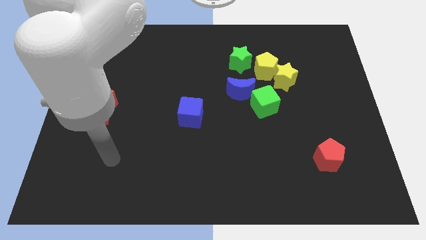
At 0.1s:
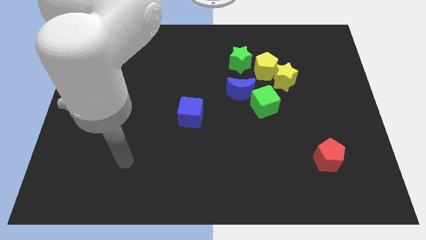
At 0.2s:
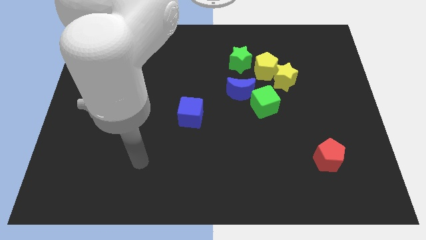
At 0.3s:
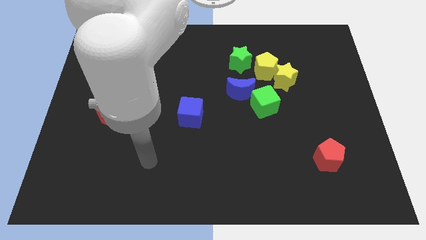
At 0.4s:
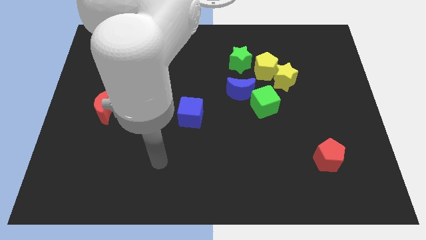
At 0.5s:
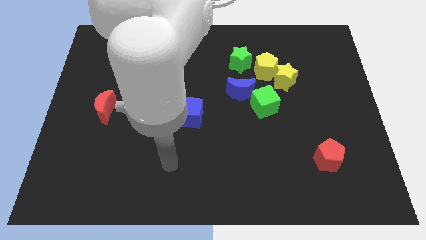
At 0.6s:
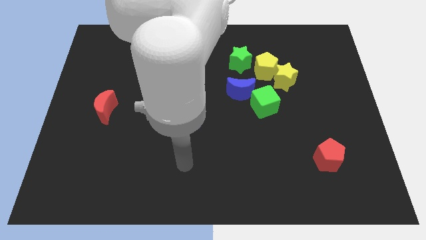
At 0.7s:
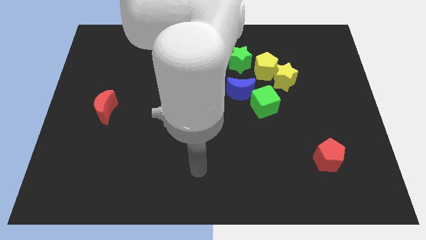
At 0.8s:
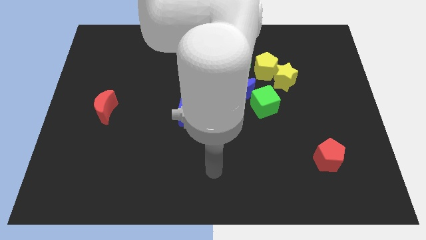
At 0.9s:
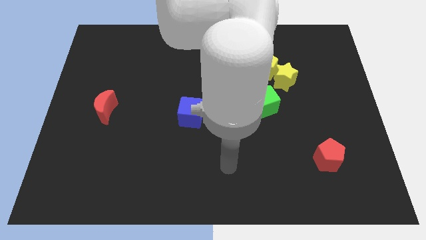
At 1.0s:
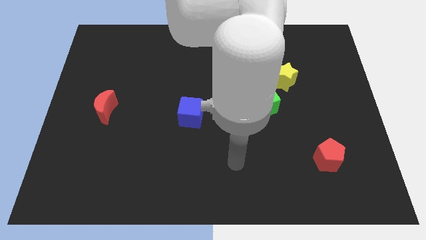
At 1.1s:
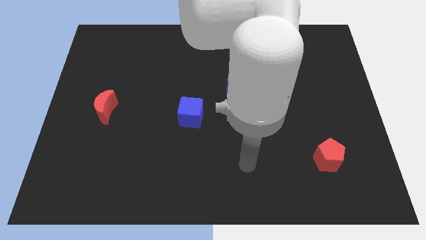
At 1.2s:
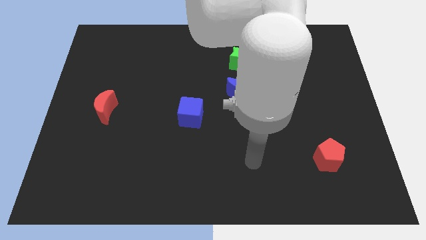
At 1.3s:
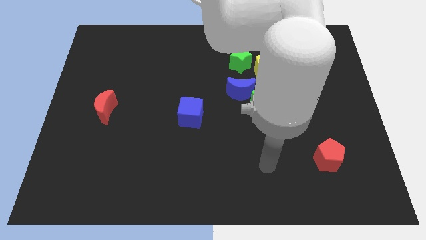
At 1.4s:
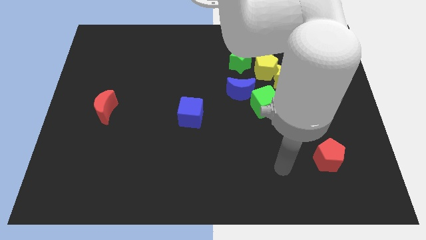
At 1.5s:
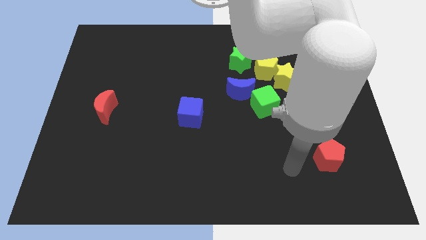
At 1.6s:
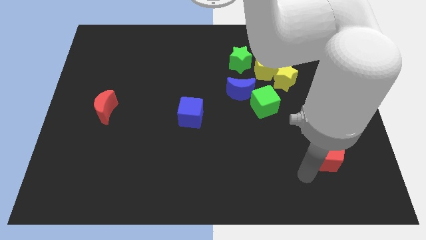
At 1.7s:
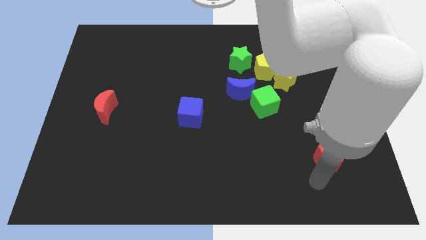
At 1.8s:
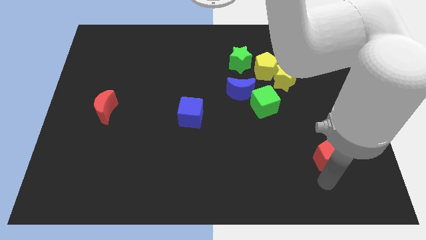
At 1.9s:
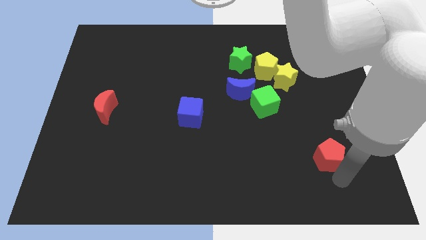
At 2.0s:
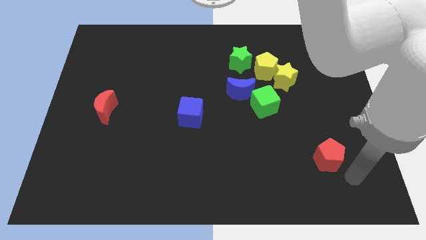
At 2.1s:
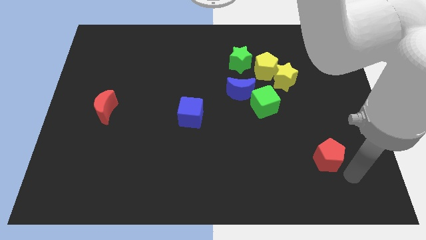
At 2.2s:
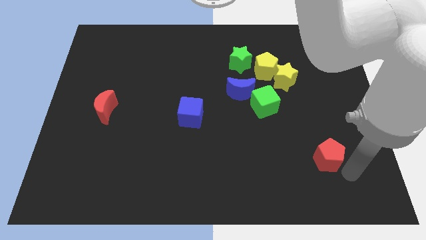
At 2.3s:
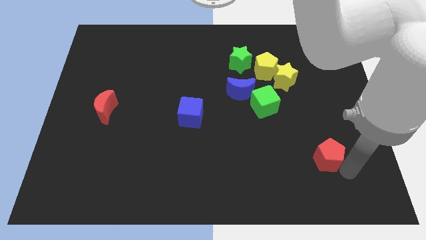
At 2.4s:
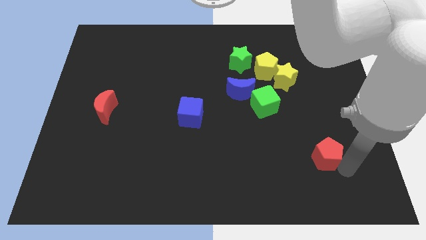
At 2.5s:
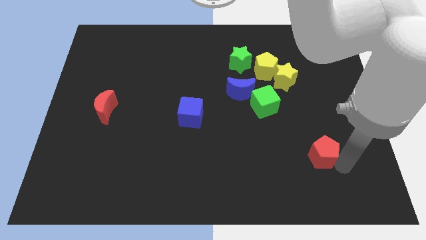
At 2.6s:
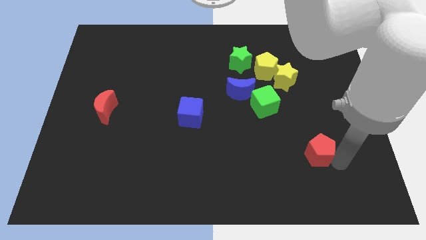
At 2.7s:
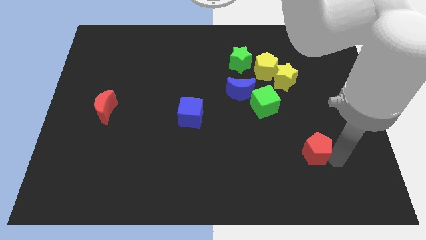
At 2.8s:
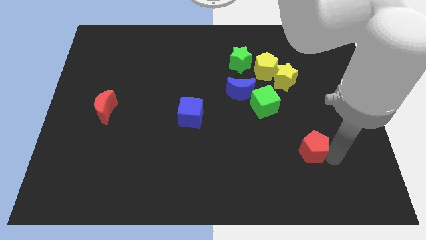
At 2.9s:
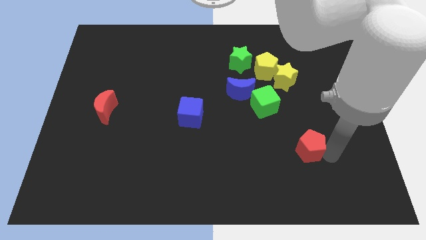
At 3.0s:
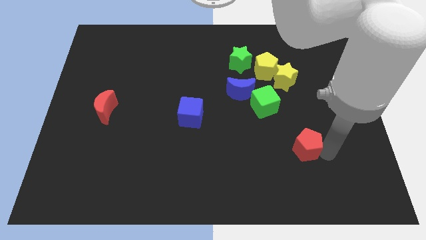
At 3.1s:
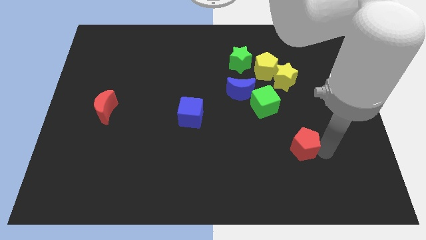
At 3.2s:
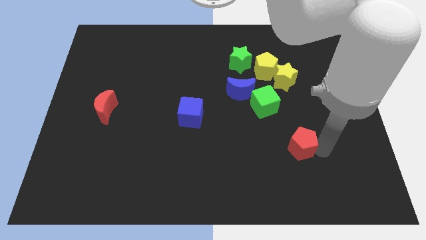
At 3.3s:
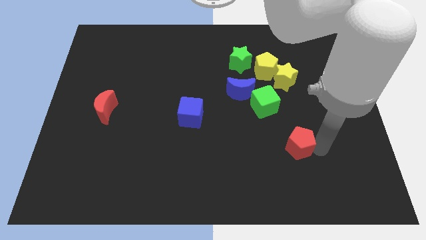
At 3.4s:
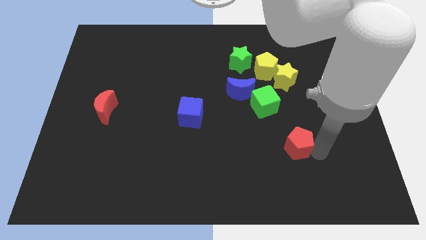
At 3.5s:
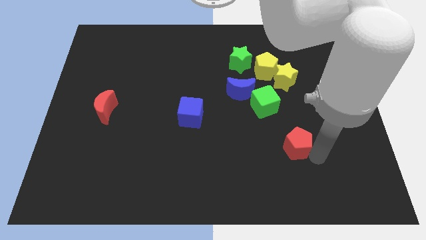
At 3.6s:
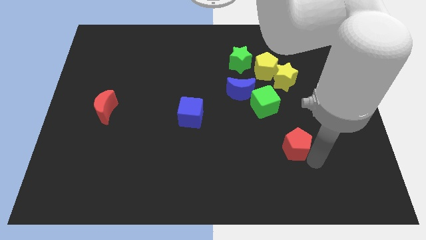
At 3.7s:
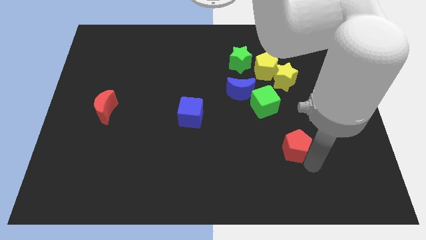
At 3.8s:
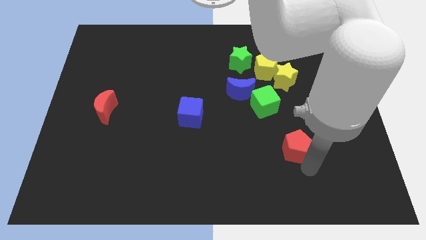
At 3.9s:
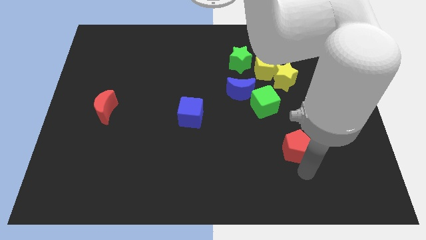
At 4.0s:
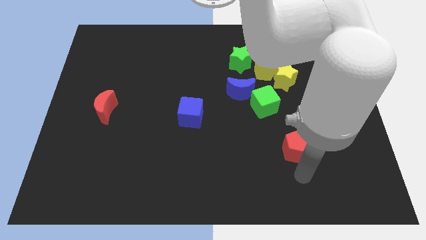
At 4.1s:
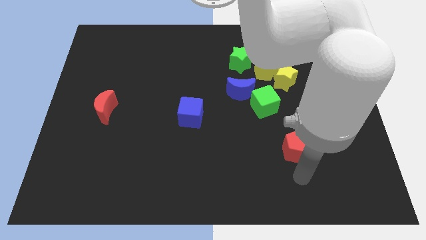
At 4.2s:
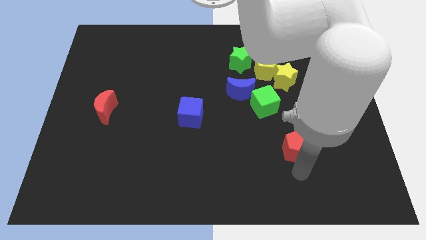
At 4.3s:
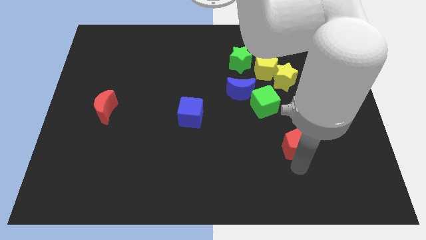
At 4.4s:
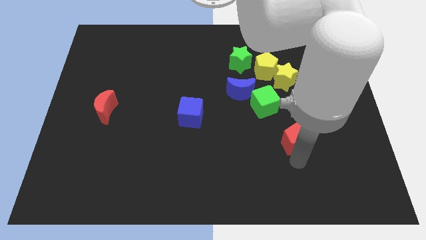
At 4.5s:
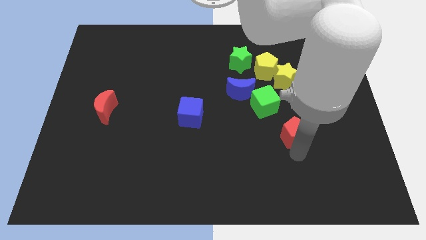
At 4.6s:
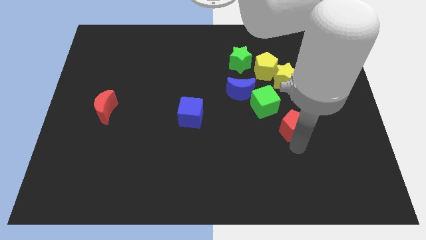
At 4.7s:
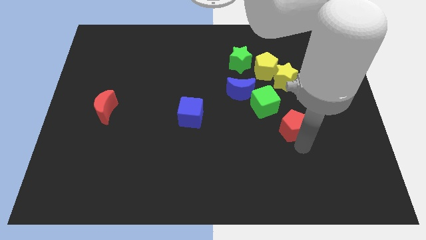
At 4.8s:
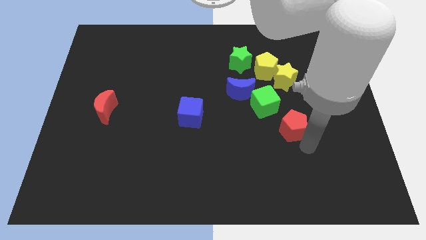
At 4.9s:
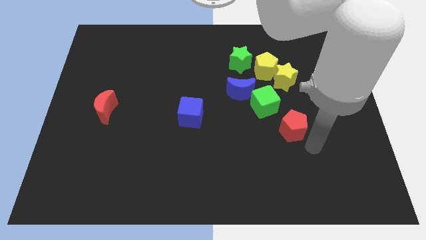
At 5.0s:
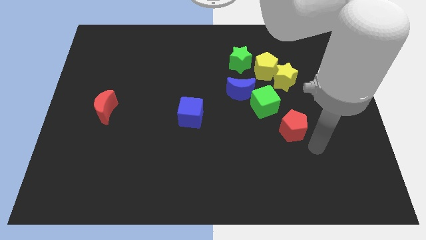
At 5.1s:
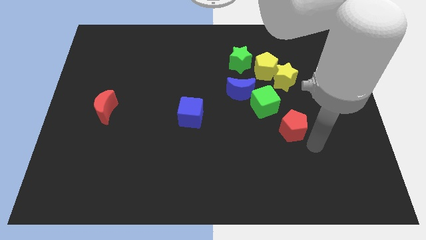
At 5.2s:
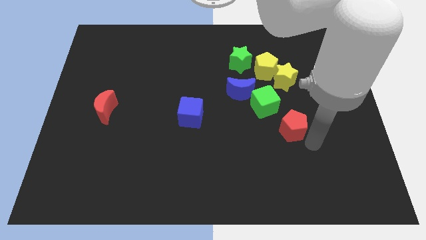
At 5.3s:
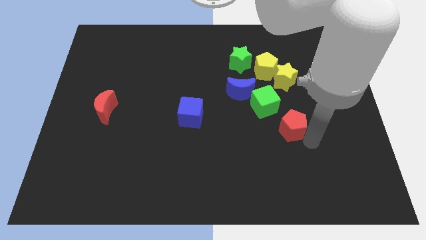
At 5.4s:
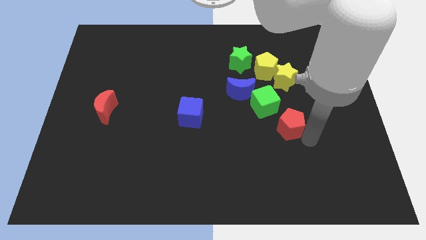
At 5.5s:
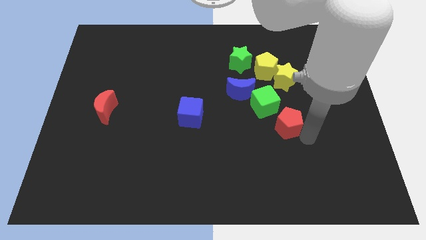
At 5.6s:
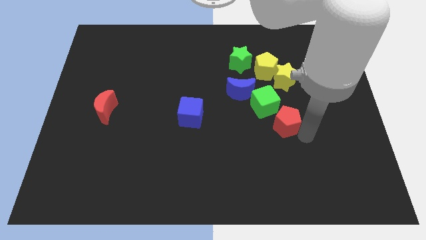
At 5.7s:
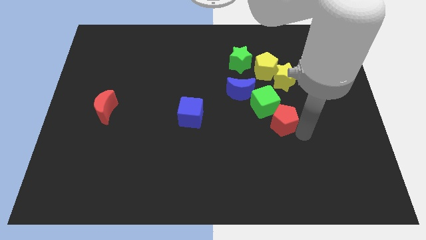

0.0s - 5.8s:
move the red pentagon diagonally down and to the right of the blue moon

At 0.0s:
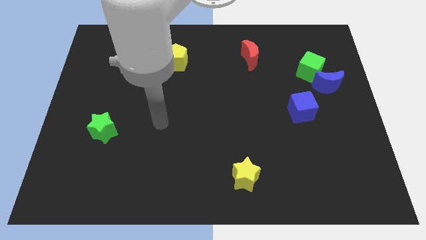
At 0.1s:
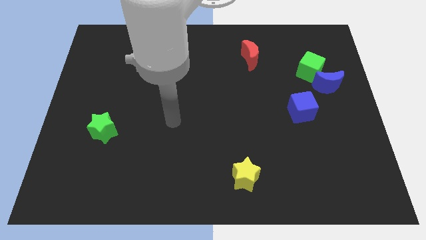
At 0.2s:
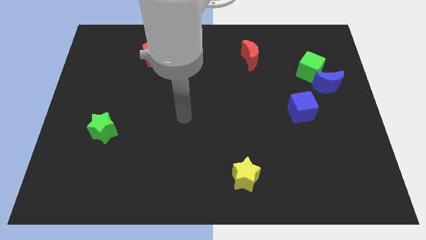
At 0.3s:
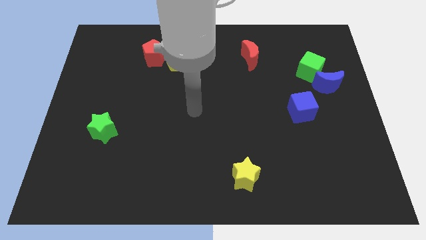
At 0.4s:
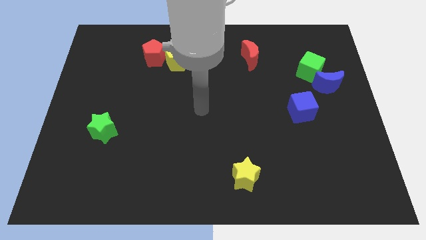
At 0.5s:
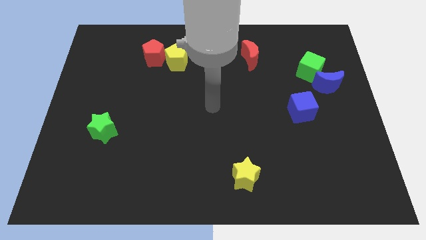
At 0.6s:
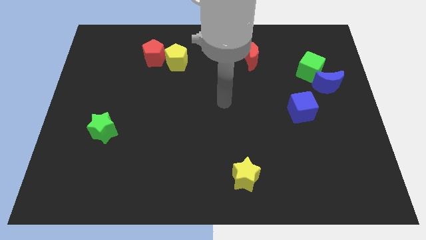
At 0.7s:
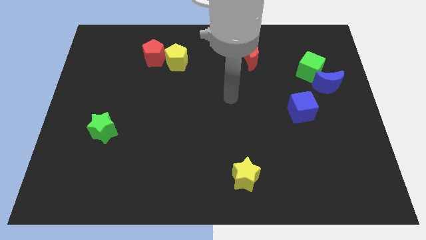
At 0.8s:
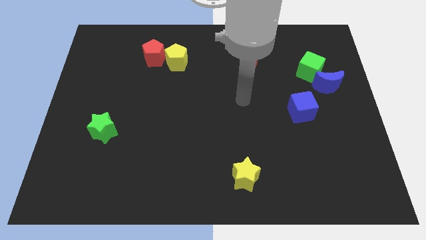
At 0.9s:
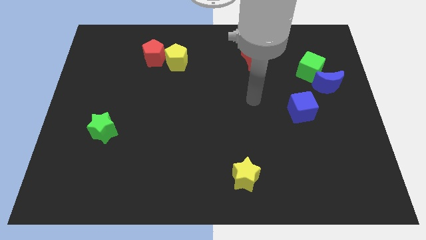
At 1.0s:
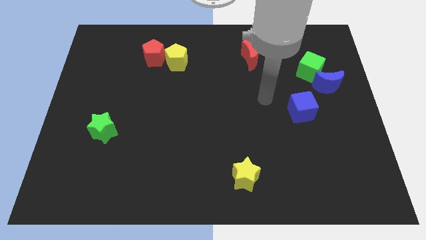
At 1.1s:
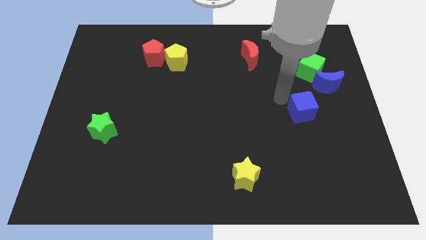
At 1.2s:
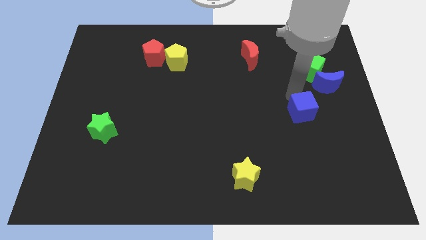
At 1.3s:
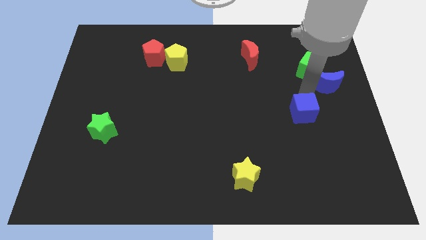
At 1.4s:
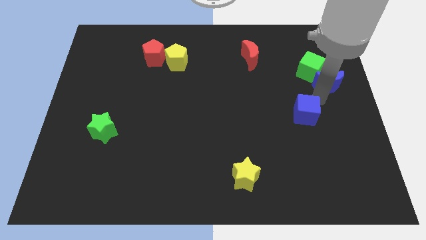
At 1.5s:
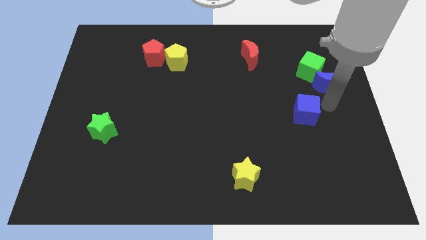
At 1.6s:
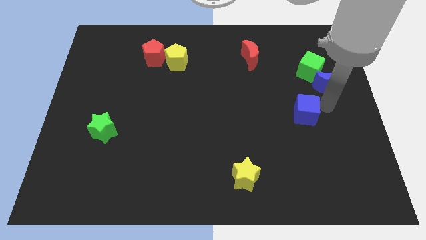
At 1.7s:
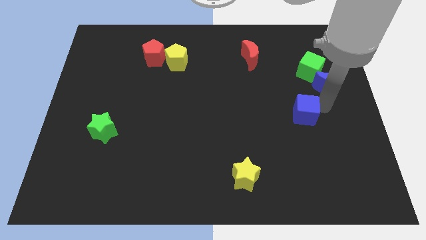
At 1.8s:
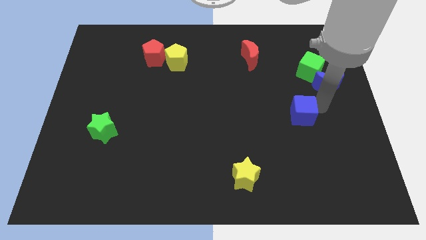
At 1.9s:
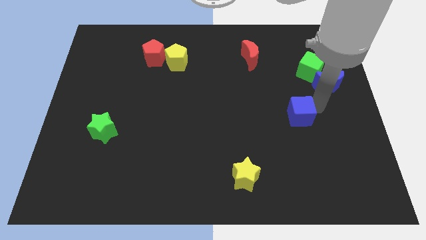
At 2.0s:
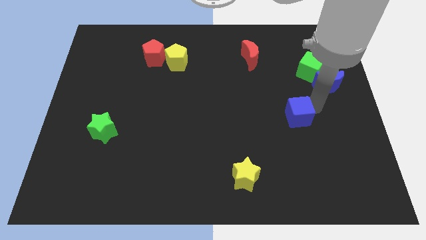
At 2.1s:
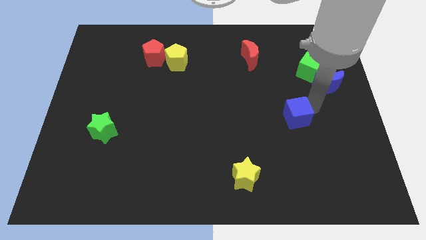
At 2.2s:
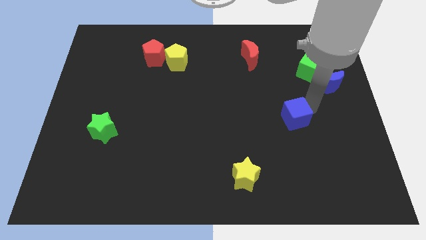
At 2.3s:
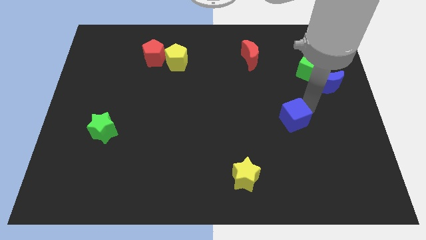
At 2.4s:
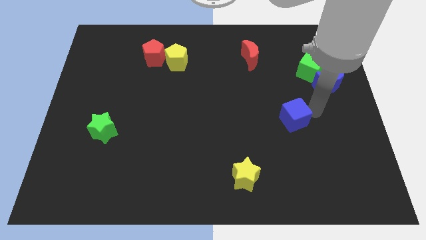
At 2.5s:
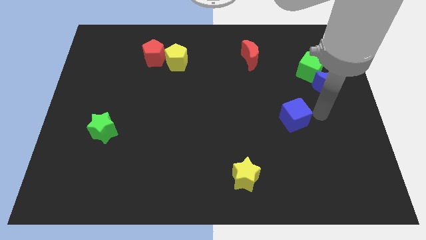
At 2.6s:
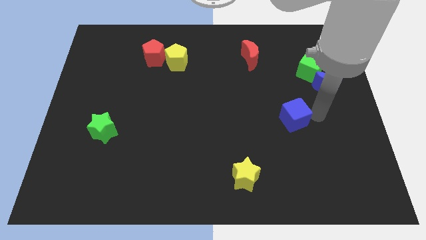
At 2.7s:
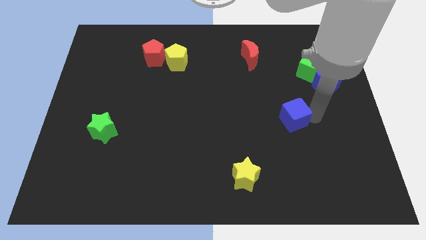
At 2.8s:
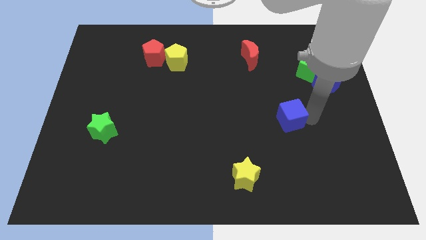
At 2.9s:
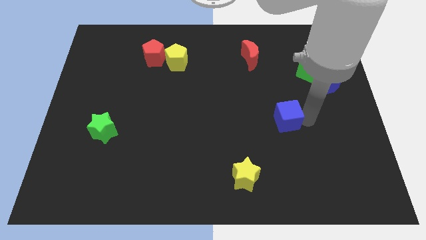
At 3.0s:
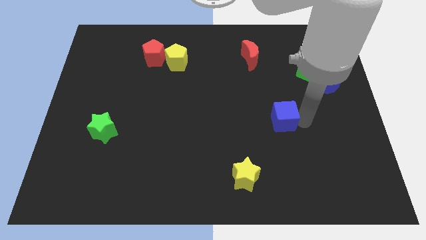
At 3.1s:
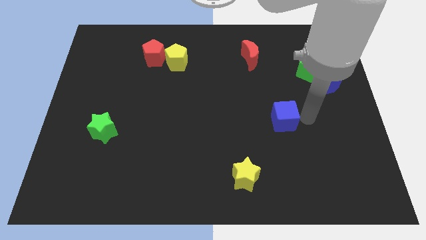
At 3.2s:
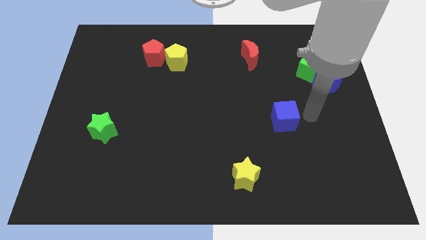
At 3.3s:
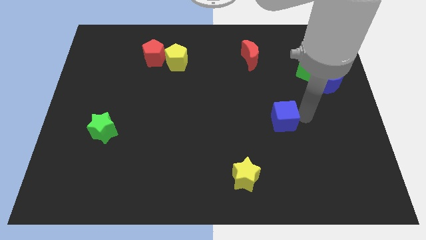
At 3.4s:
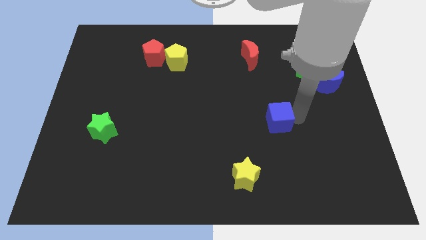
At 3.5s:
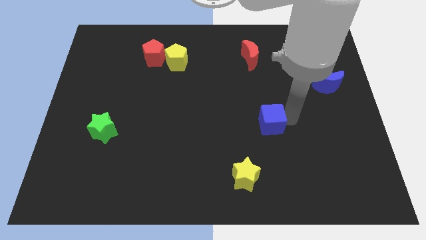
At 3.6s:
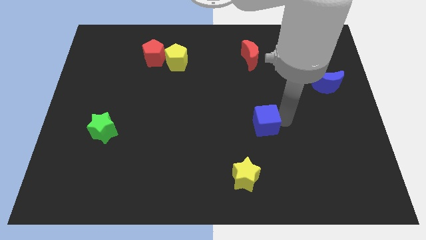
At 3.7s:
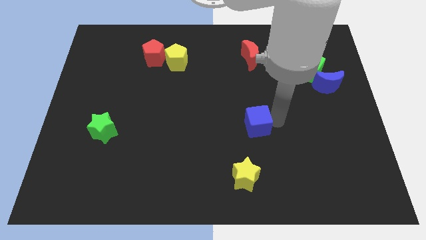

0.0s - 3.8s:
push the blue cube to the top of the yellow star
